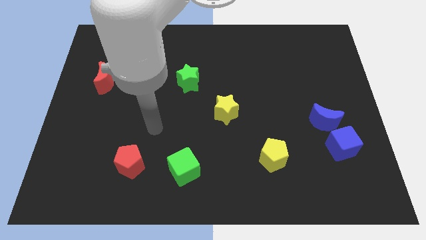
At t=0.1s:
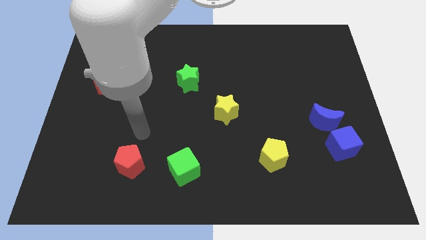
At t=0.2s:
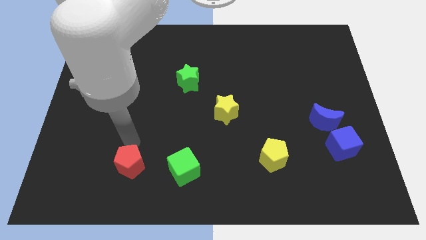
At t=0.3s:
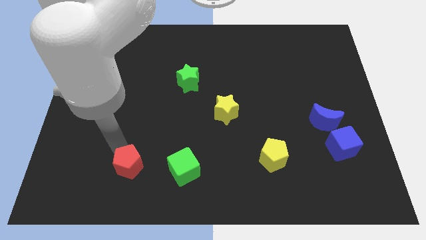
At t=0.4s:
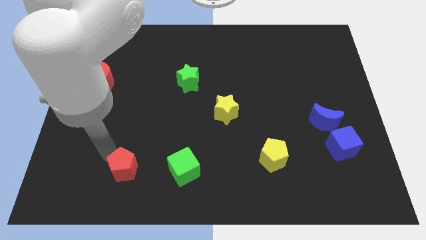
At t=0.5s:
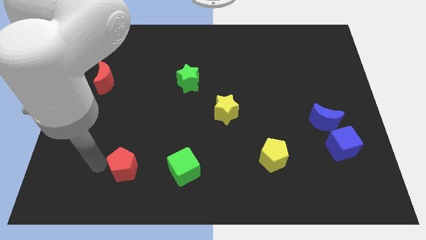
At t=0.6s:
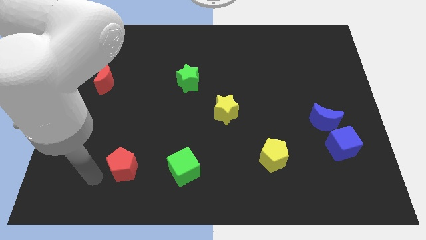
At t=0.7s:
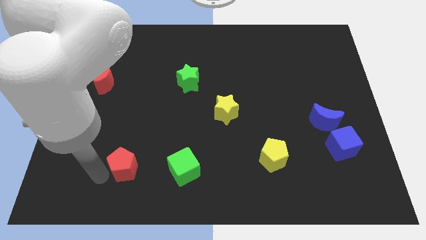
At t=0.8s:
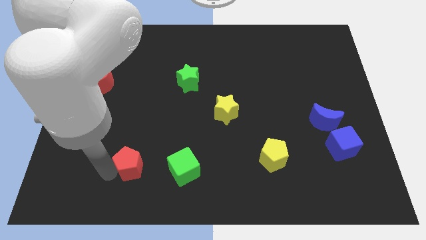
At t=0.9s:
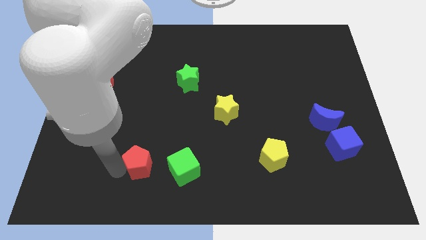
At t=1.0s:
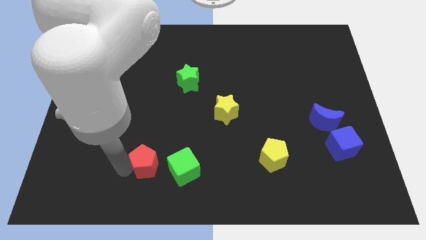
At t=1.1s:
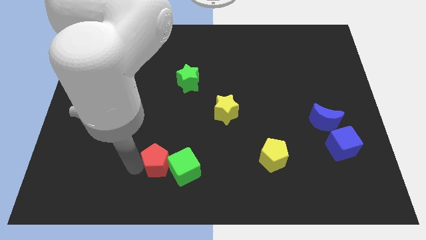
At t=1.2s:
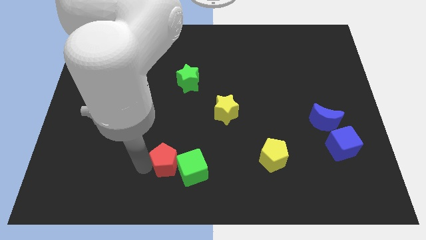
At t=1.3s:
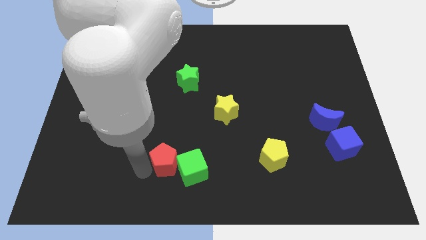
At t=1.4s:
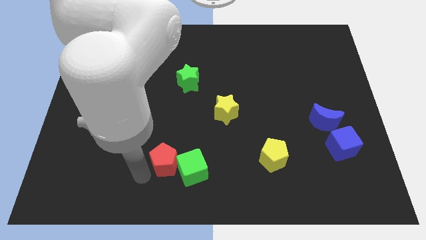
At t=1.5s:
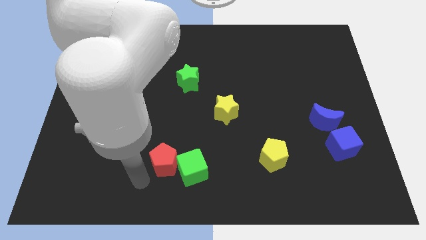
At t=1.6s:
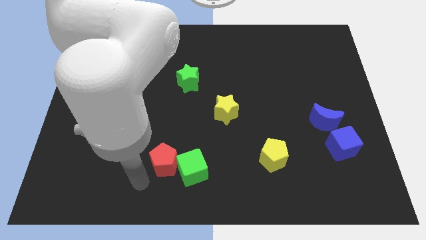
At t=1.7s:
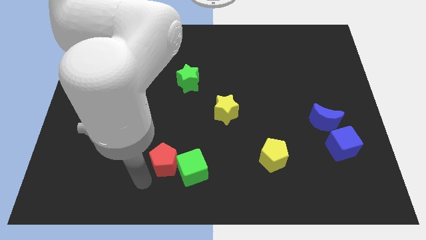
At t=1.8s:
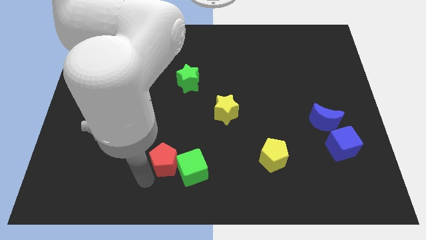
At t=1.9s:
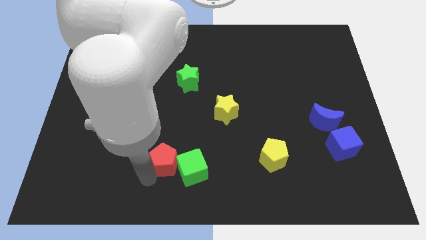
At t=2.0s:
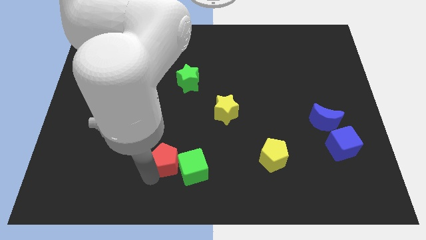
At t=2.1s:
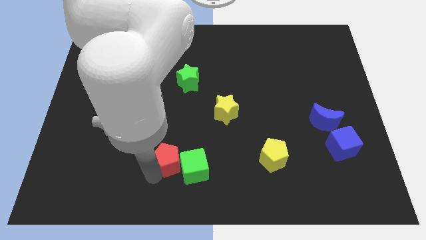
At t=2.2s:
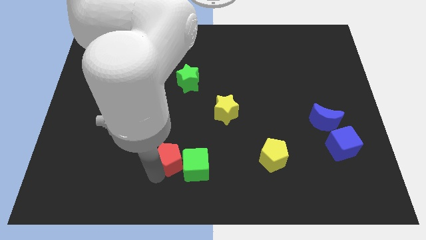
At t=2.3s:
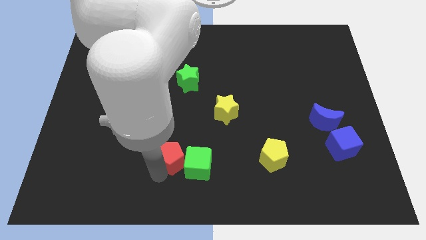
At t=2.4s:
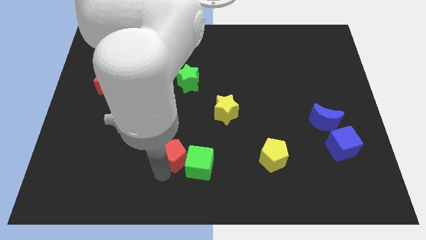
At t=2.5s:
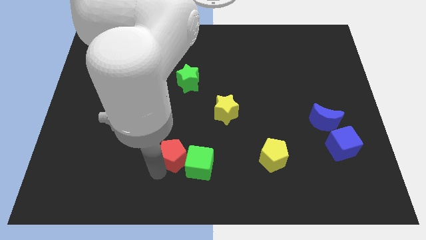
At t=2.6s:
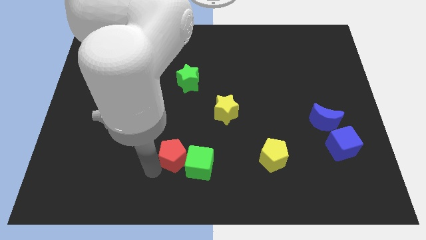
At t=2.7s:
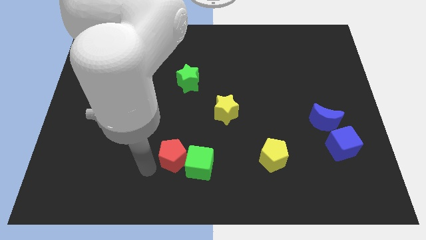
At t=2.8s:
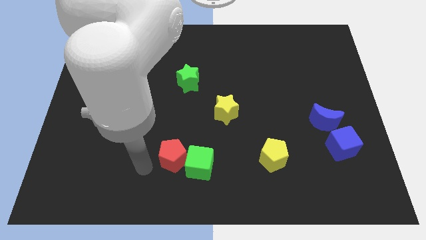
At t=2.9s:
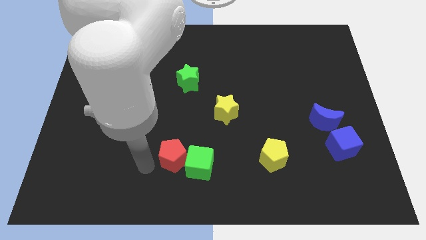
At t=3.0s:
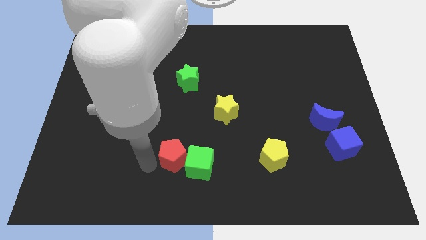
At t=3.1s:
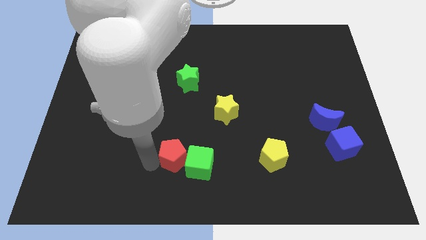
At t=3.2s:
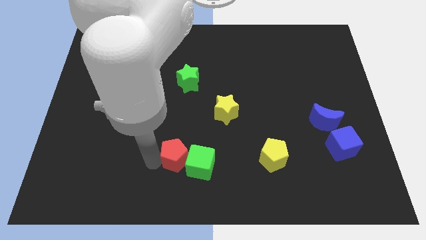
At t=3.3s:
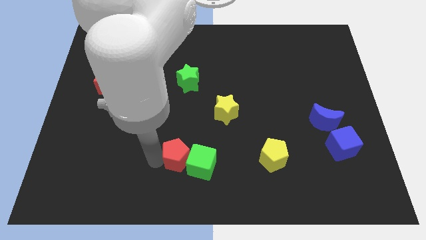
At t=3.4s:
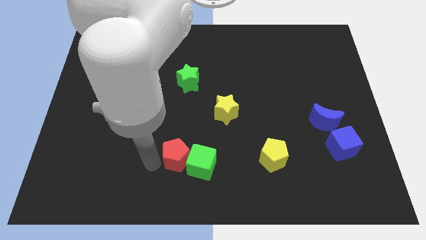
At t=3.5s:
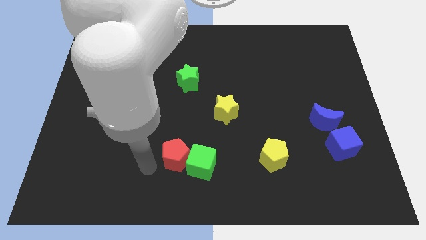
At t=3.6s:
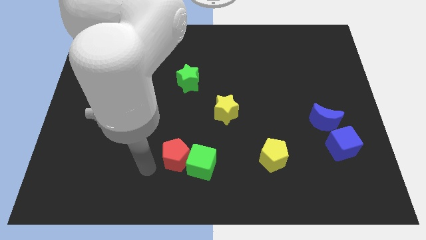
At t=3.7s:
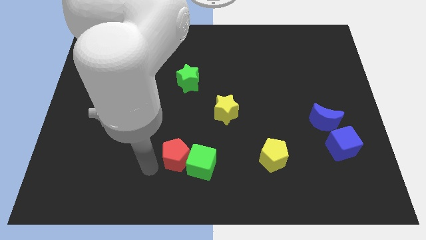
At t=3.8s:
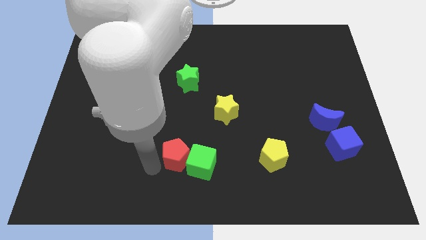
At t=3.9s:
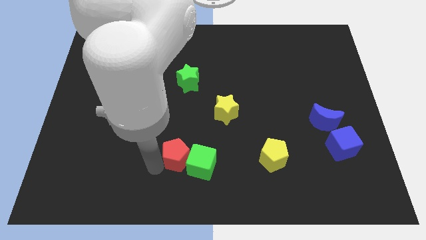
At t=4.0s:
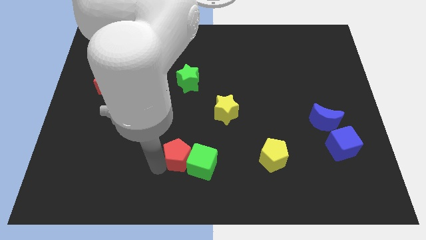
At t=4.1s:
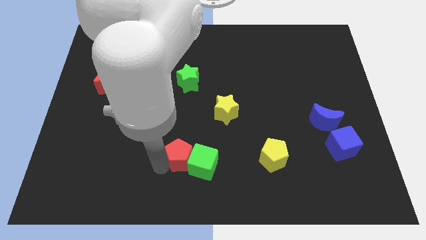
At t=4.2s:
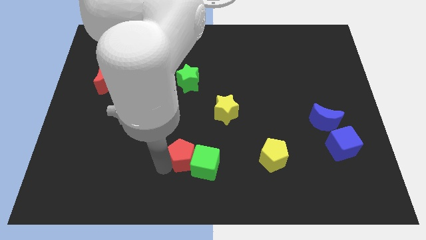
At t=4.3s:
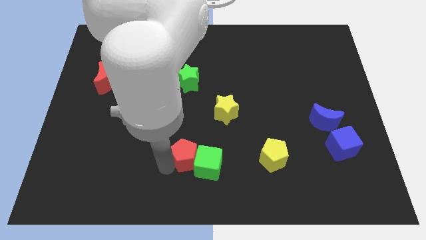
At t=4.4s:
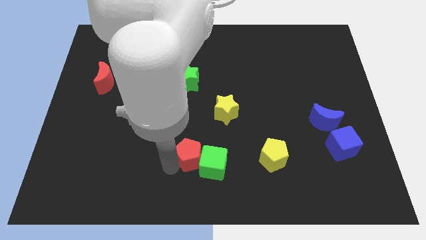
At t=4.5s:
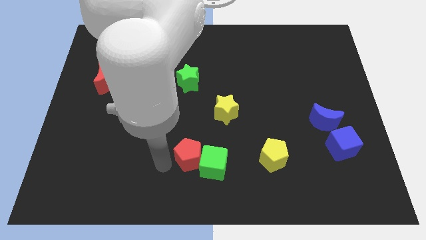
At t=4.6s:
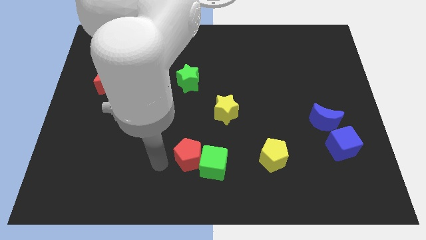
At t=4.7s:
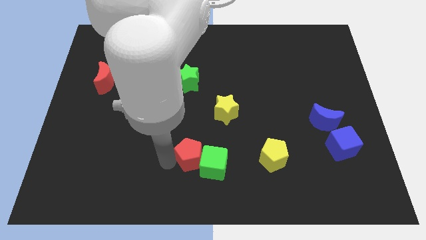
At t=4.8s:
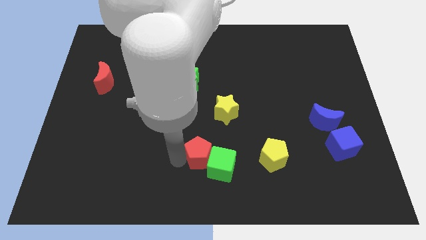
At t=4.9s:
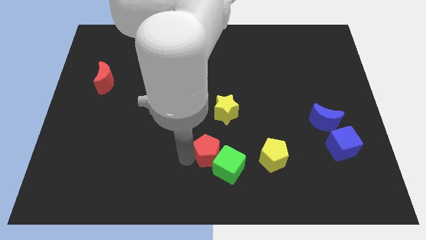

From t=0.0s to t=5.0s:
push the red pentagon below the yellow star

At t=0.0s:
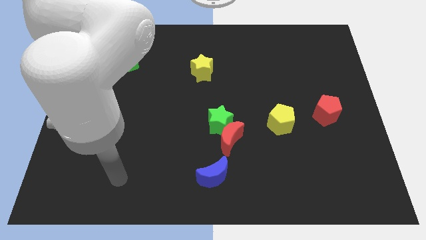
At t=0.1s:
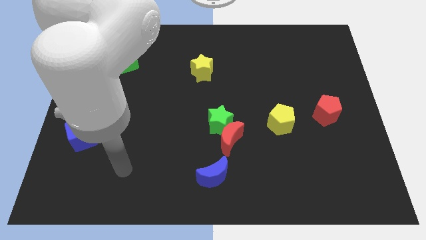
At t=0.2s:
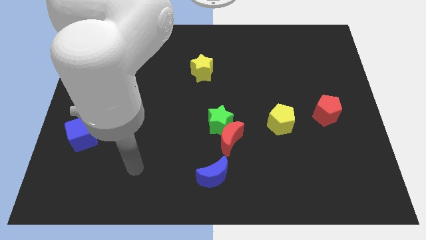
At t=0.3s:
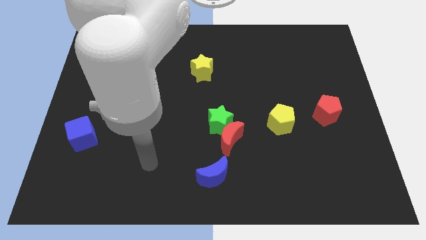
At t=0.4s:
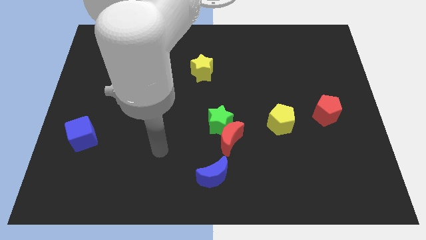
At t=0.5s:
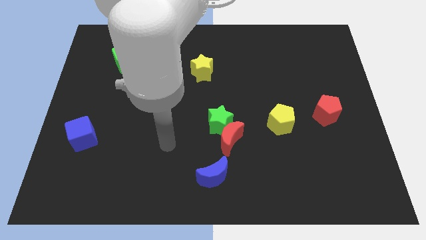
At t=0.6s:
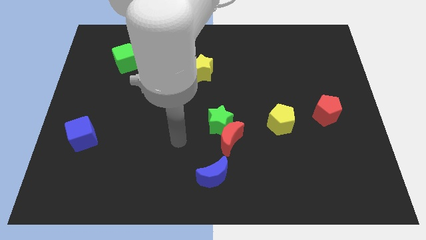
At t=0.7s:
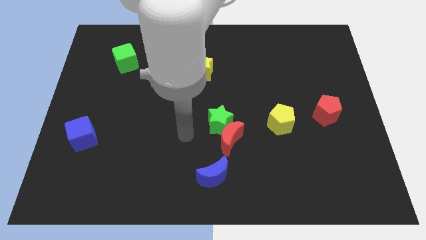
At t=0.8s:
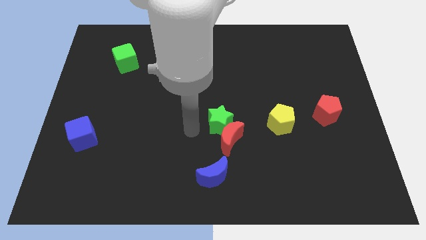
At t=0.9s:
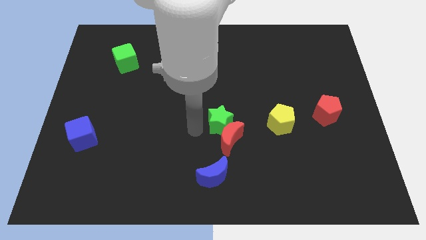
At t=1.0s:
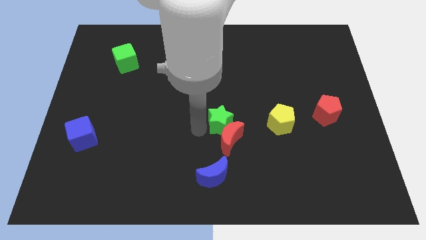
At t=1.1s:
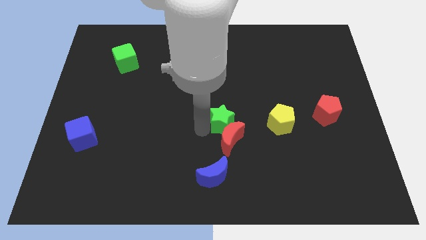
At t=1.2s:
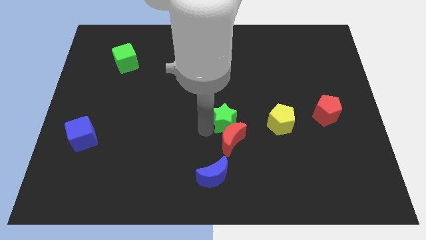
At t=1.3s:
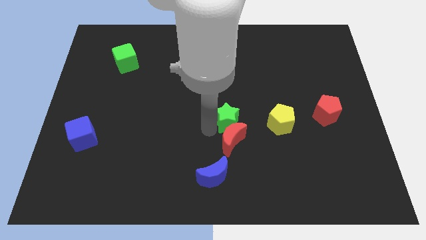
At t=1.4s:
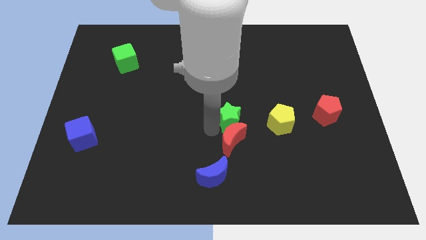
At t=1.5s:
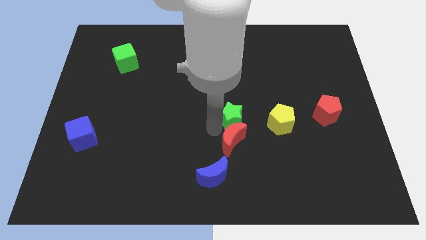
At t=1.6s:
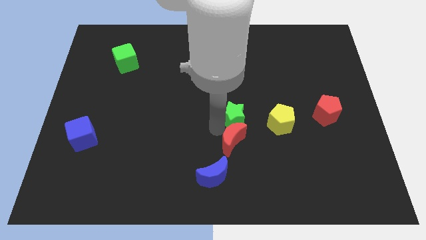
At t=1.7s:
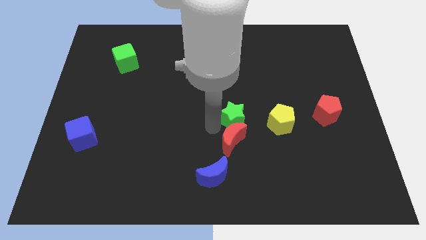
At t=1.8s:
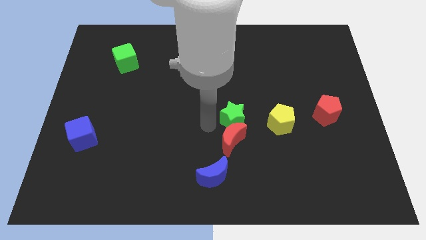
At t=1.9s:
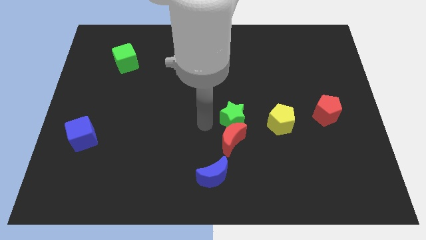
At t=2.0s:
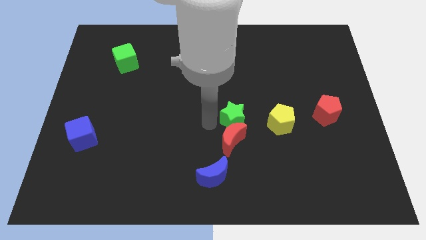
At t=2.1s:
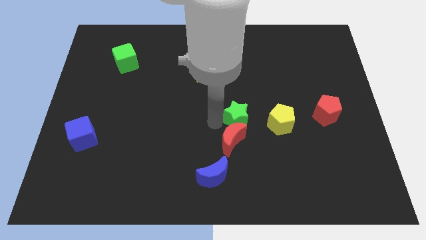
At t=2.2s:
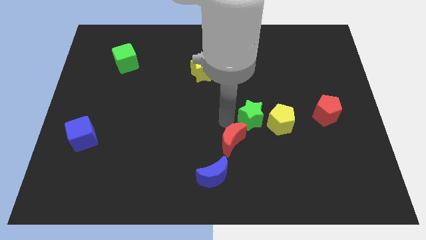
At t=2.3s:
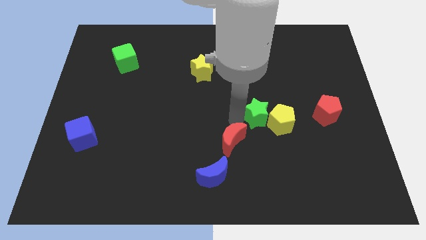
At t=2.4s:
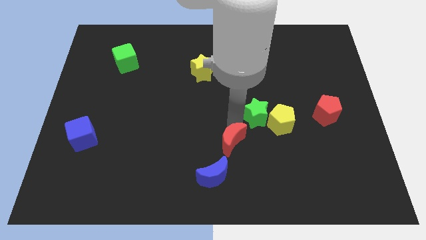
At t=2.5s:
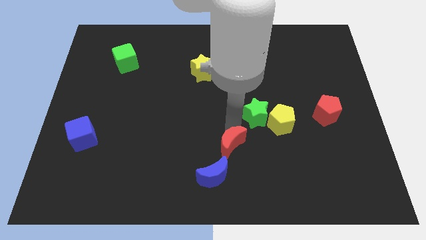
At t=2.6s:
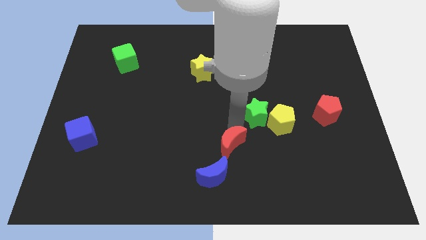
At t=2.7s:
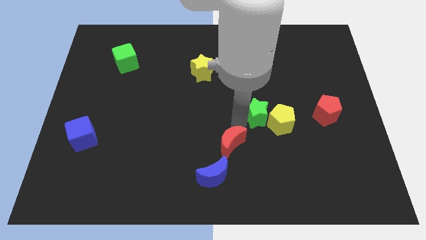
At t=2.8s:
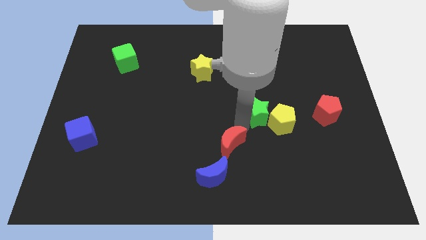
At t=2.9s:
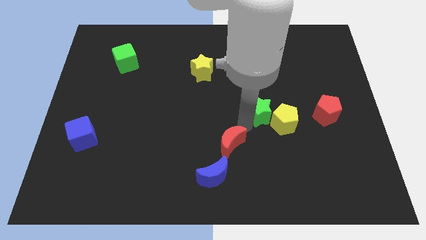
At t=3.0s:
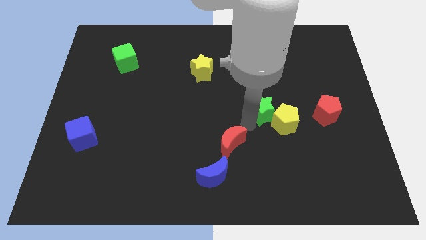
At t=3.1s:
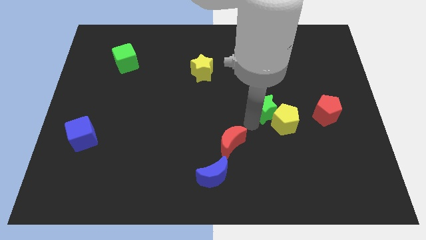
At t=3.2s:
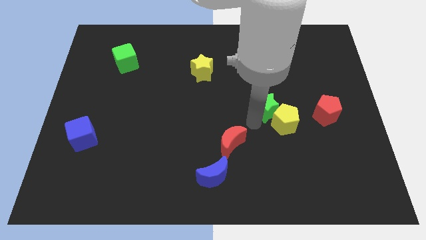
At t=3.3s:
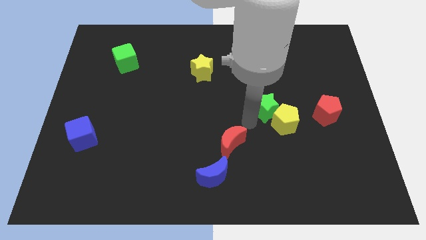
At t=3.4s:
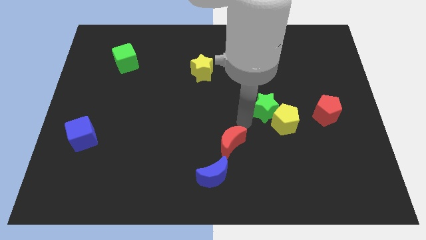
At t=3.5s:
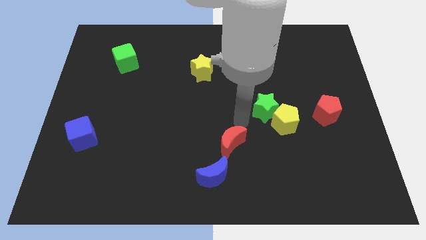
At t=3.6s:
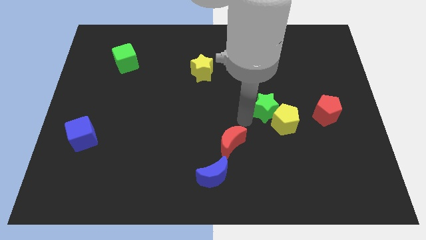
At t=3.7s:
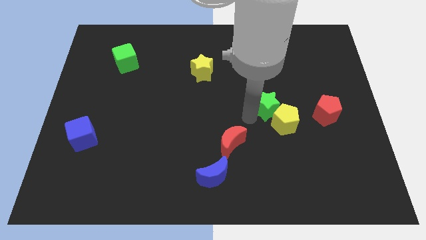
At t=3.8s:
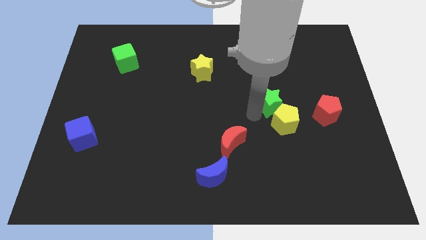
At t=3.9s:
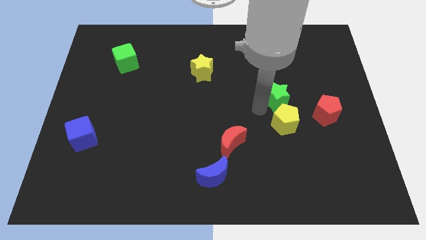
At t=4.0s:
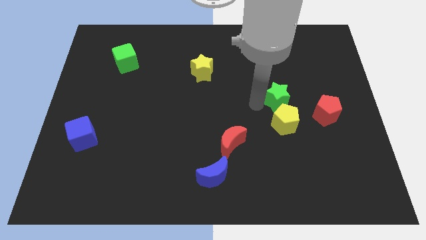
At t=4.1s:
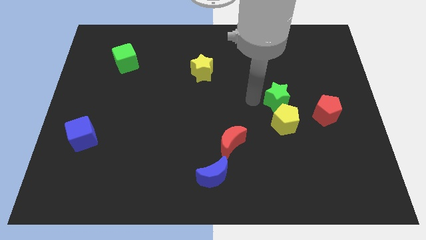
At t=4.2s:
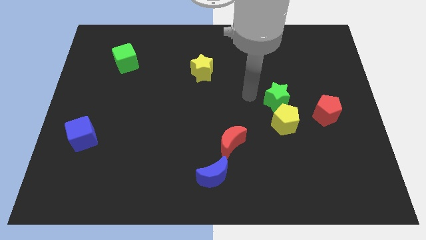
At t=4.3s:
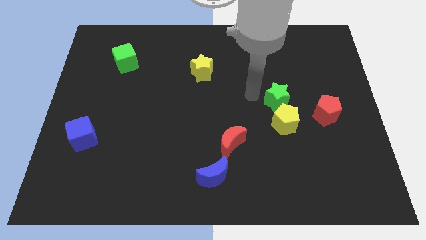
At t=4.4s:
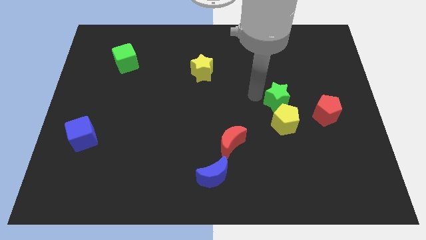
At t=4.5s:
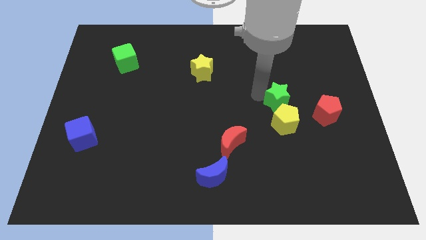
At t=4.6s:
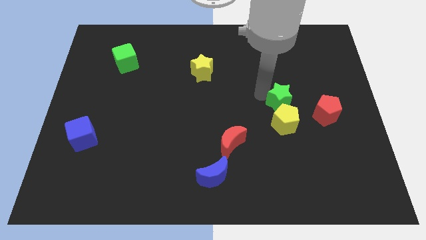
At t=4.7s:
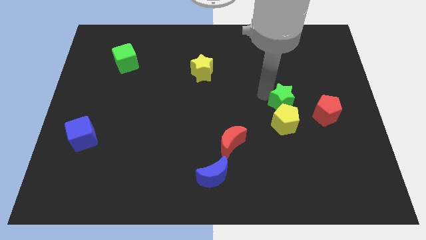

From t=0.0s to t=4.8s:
slide the green star to the top right side of the yellow pentagon
